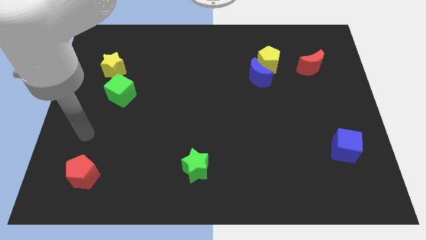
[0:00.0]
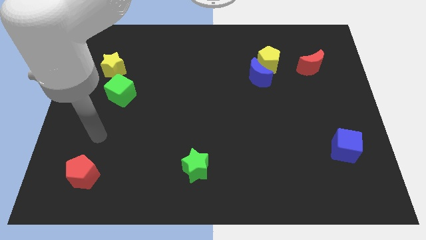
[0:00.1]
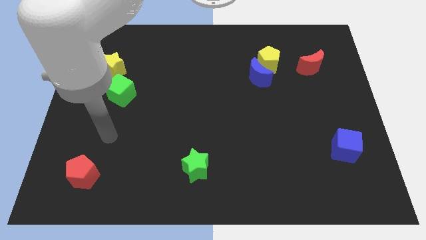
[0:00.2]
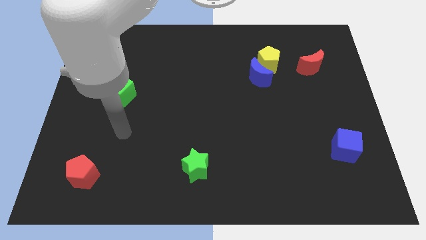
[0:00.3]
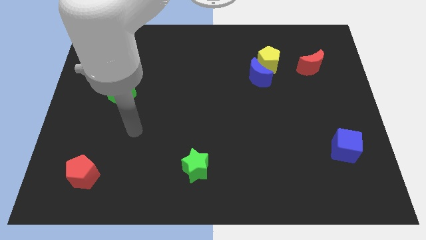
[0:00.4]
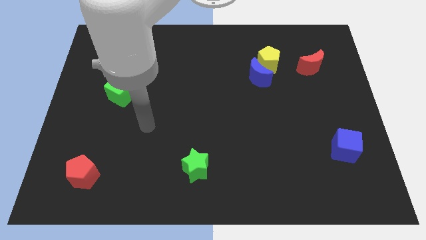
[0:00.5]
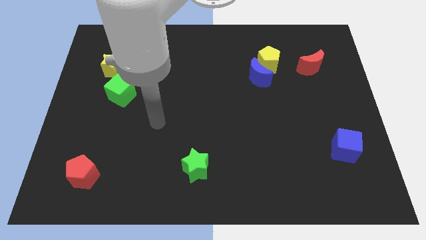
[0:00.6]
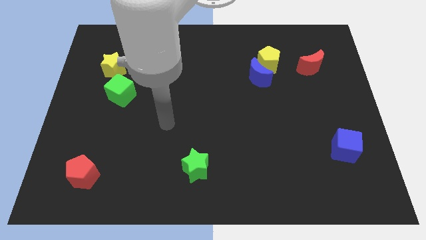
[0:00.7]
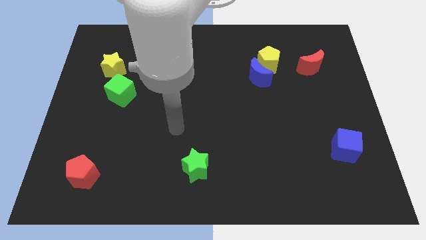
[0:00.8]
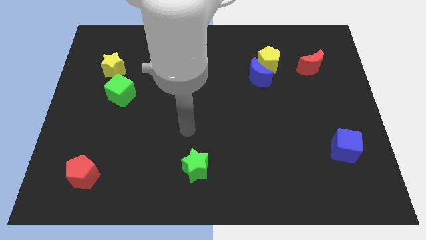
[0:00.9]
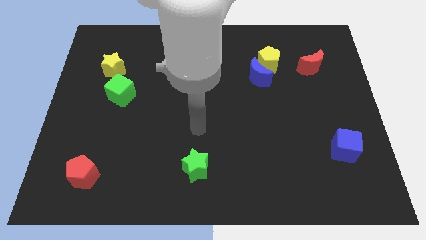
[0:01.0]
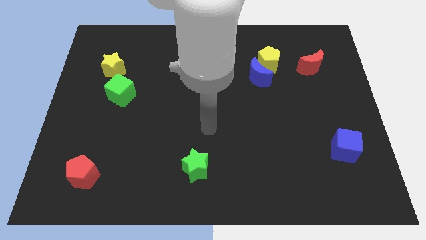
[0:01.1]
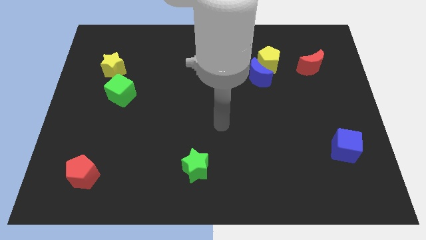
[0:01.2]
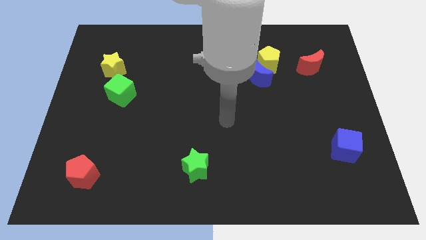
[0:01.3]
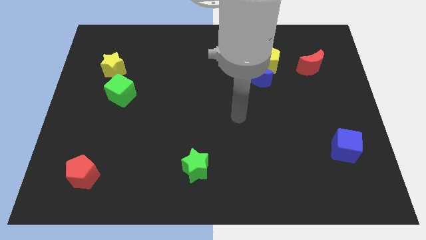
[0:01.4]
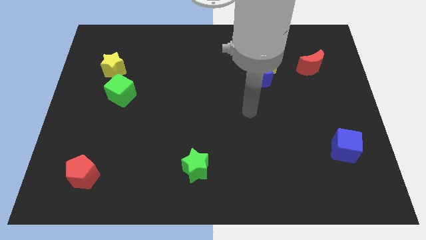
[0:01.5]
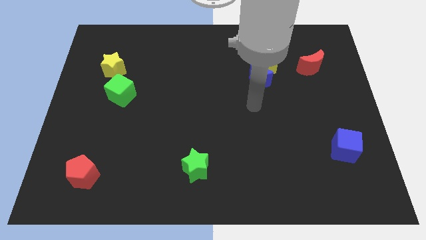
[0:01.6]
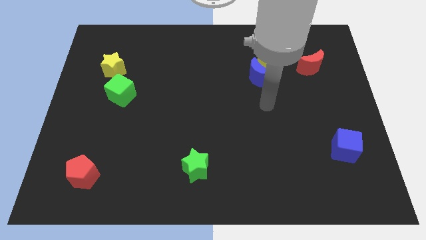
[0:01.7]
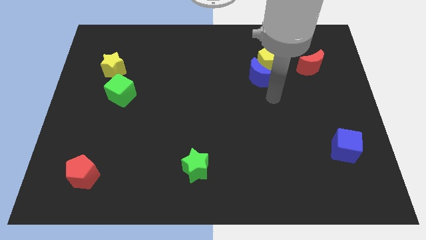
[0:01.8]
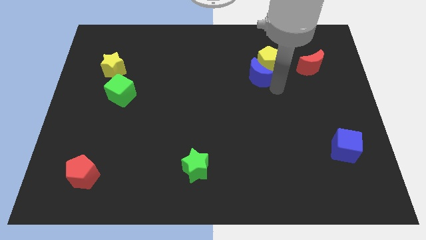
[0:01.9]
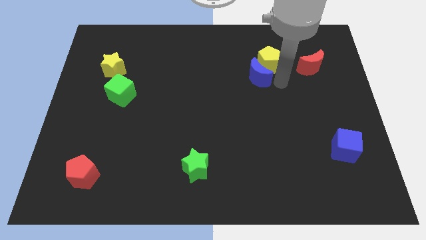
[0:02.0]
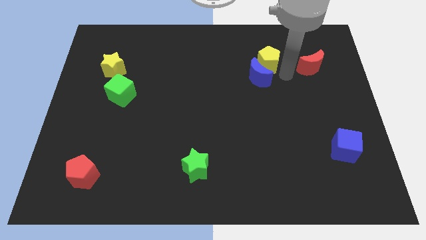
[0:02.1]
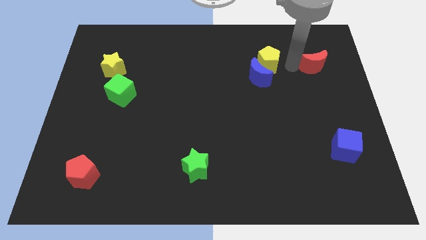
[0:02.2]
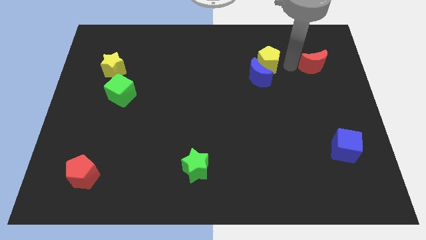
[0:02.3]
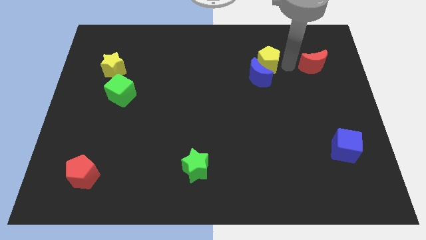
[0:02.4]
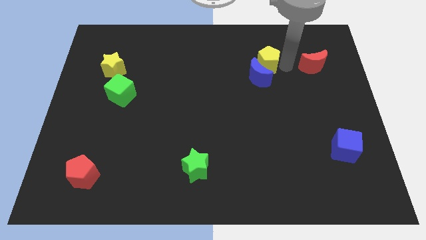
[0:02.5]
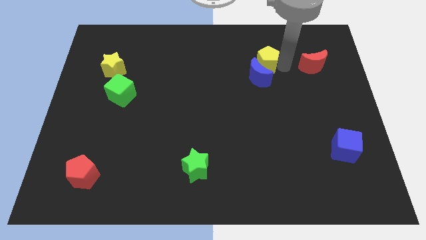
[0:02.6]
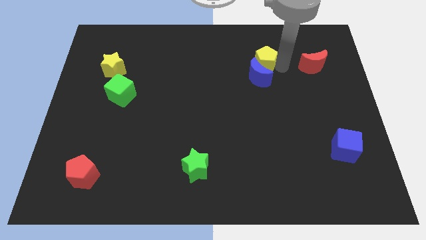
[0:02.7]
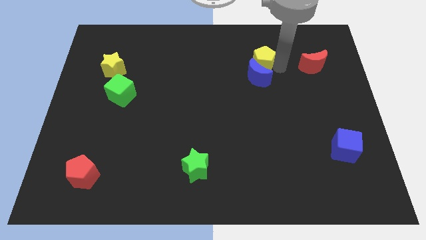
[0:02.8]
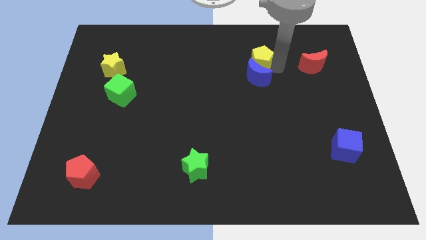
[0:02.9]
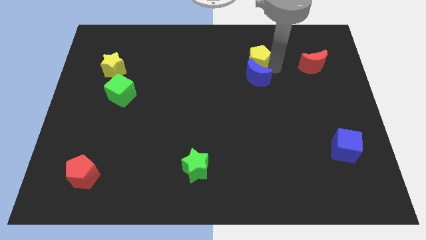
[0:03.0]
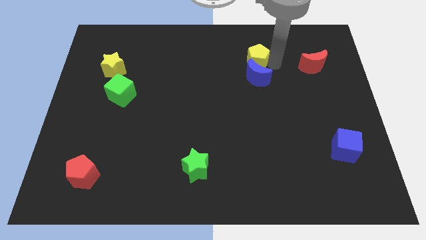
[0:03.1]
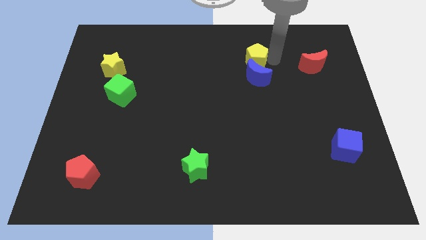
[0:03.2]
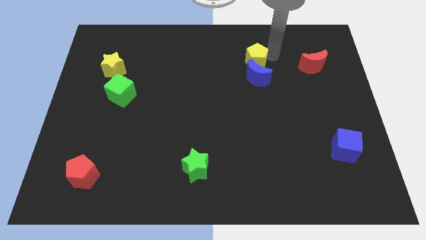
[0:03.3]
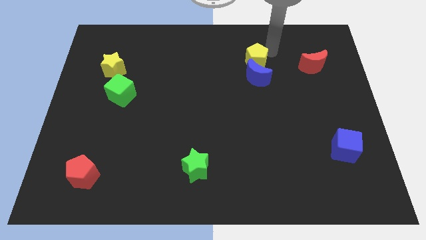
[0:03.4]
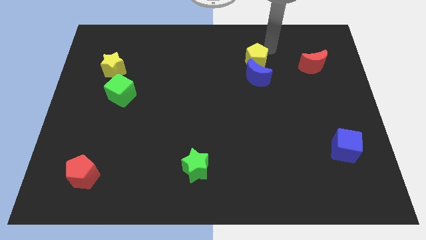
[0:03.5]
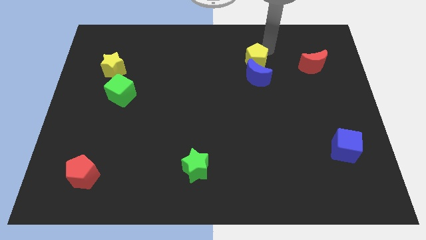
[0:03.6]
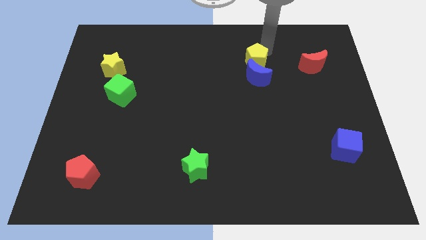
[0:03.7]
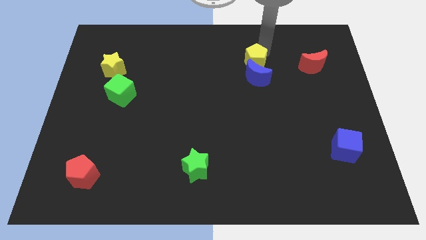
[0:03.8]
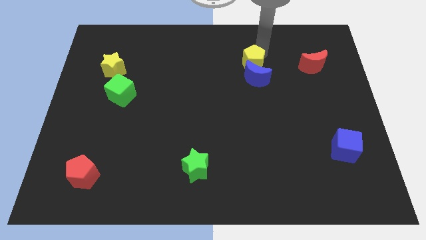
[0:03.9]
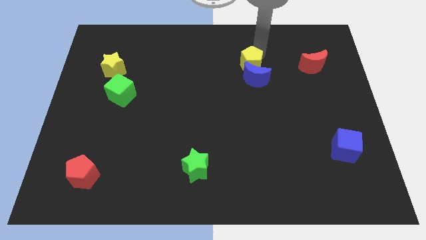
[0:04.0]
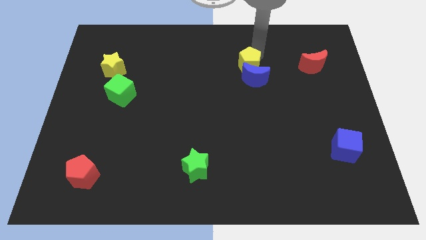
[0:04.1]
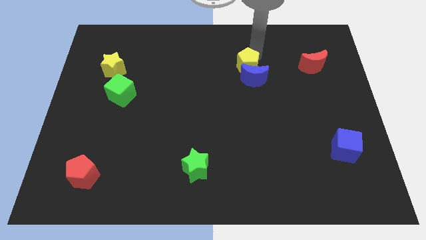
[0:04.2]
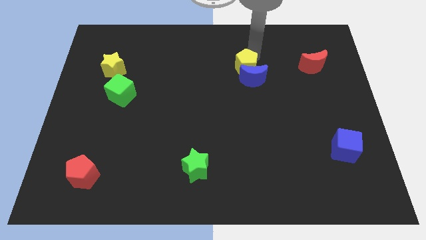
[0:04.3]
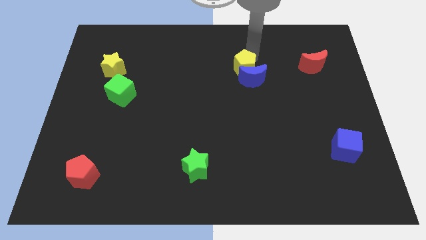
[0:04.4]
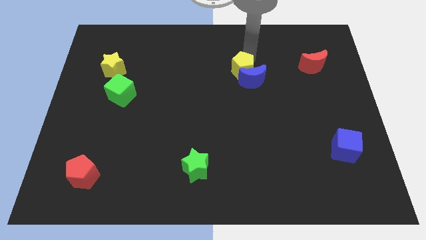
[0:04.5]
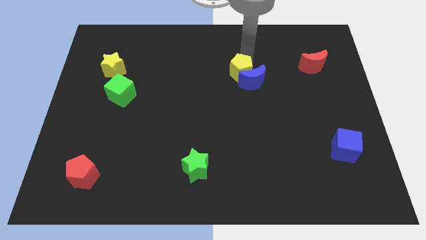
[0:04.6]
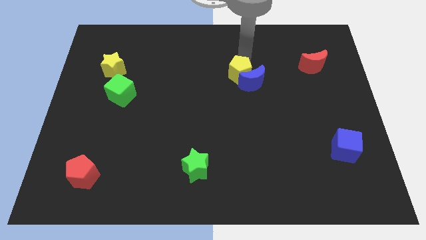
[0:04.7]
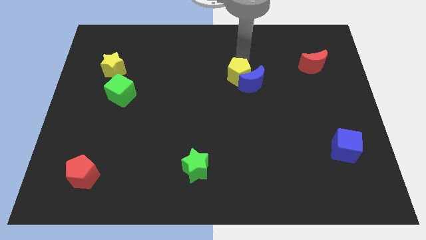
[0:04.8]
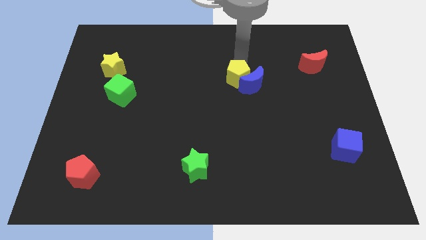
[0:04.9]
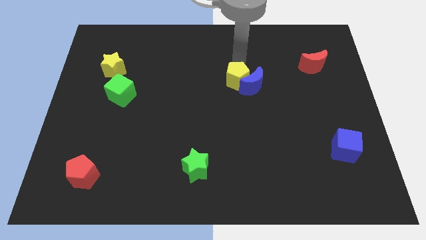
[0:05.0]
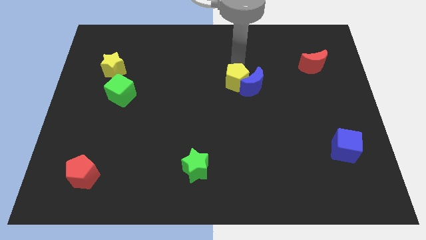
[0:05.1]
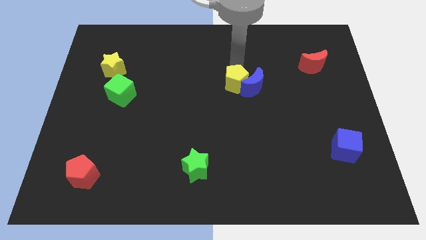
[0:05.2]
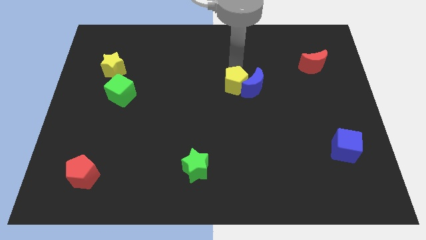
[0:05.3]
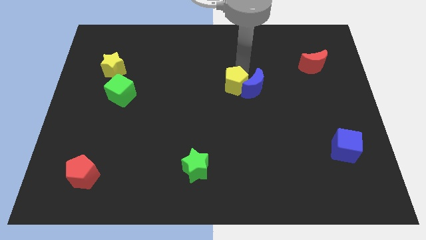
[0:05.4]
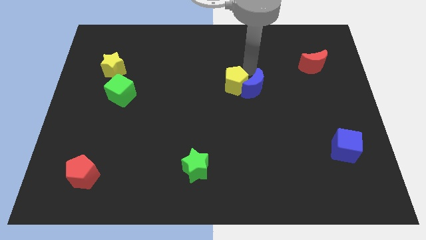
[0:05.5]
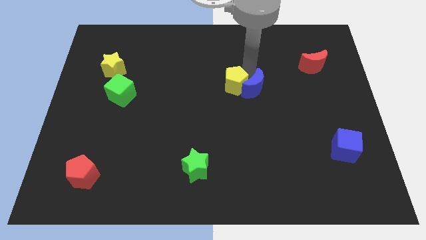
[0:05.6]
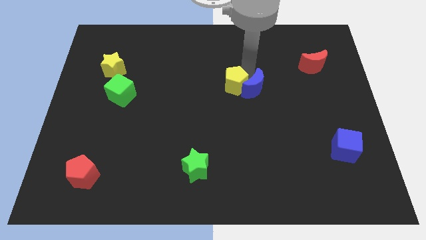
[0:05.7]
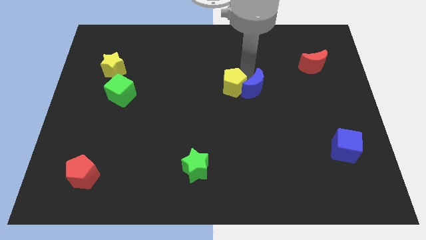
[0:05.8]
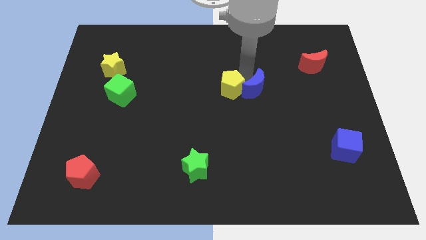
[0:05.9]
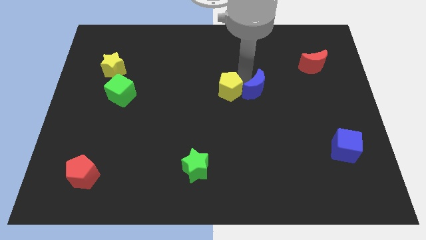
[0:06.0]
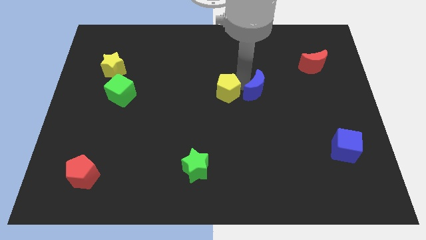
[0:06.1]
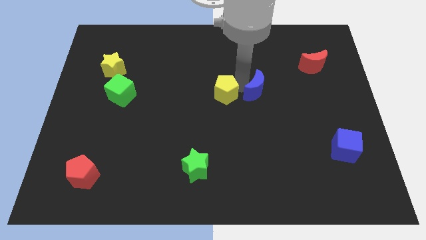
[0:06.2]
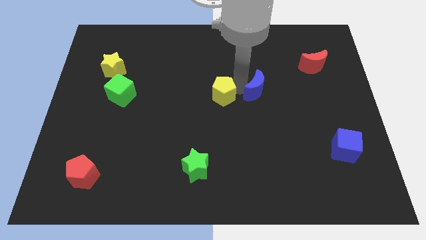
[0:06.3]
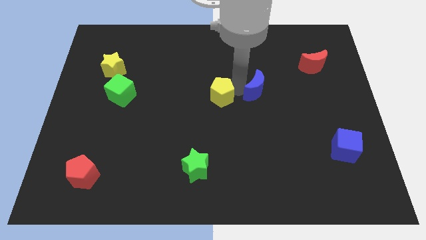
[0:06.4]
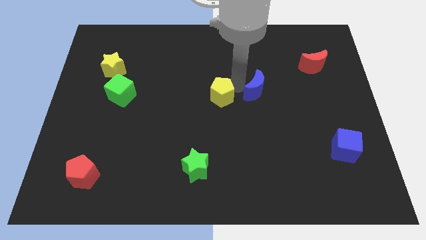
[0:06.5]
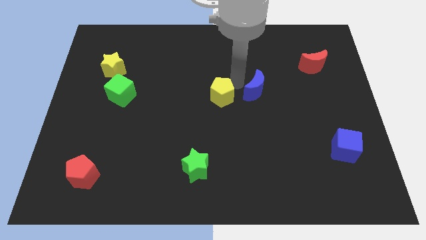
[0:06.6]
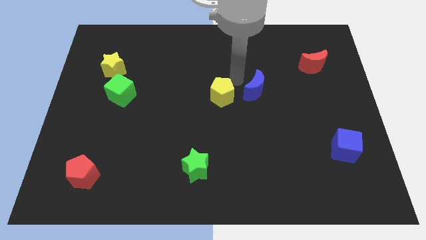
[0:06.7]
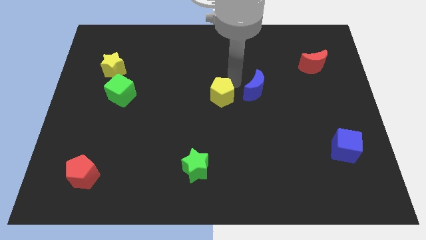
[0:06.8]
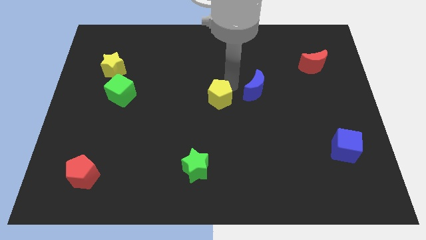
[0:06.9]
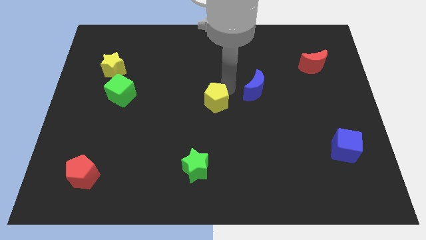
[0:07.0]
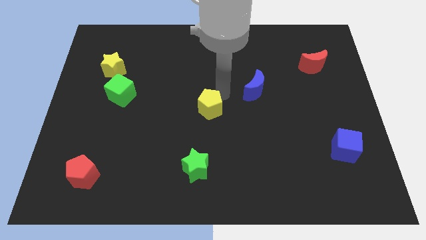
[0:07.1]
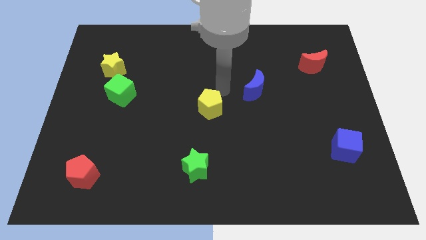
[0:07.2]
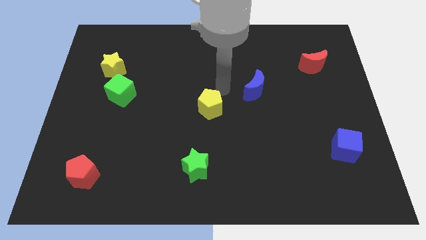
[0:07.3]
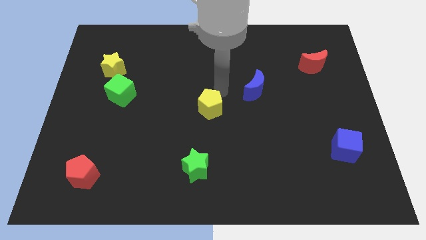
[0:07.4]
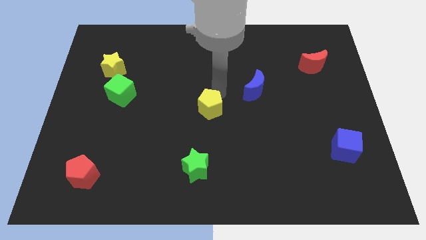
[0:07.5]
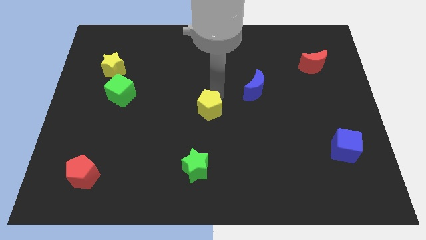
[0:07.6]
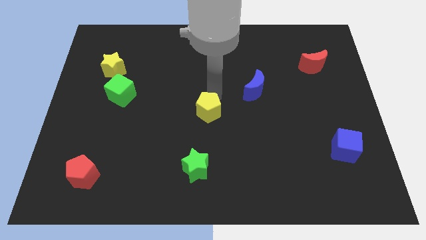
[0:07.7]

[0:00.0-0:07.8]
move the yellow pentagon above the green star

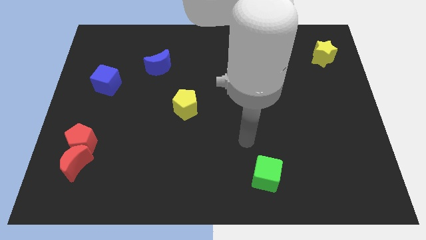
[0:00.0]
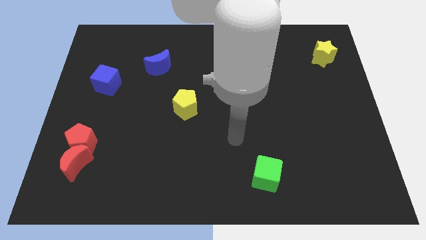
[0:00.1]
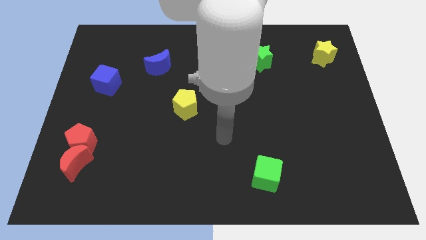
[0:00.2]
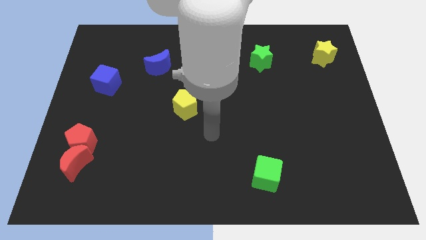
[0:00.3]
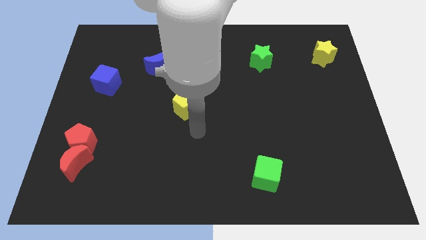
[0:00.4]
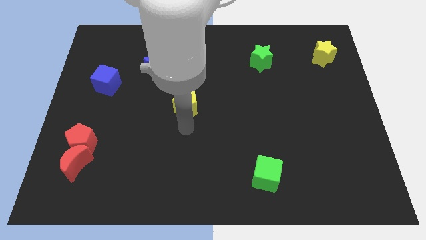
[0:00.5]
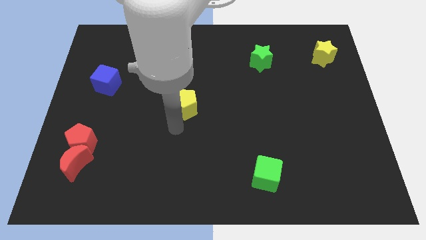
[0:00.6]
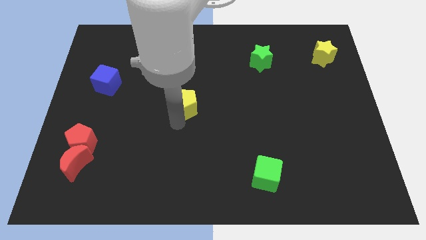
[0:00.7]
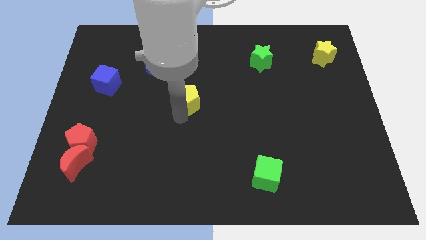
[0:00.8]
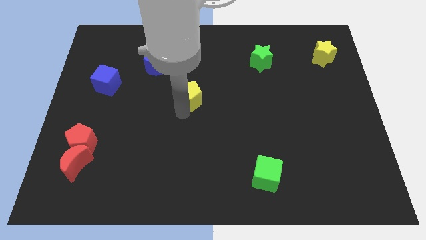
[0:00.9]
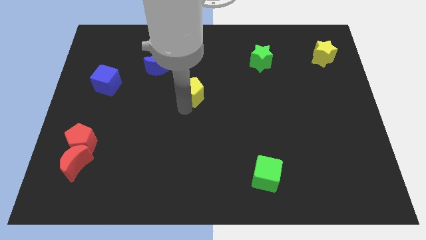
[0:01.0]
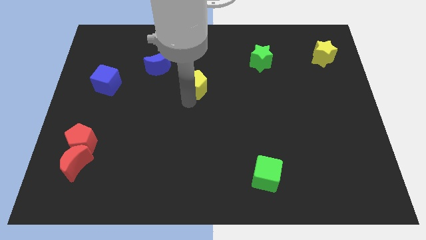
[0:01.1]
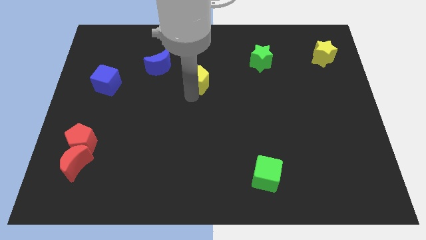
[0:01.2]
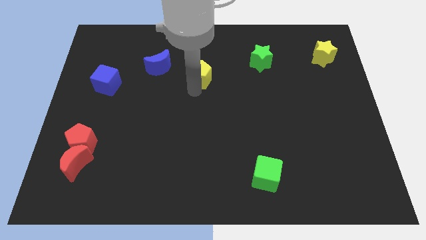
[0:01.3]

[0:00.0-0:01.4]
put the yellow pentagon to the right of the blue moon
